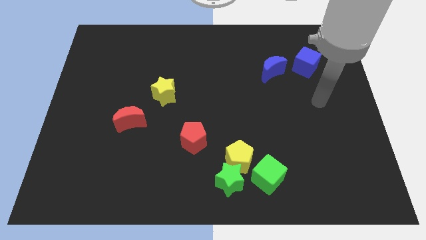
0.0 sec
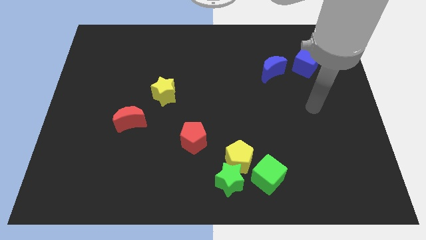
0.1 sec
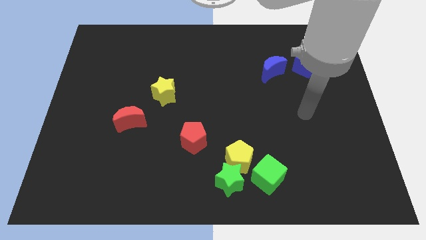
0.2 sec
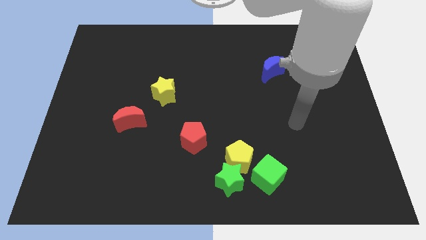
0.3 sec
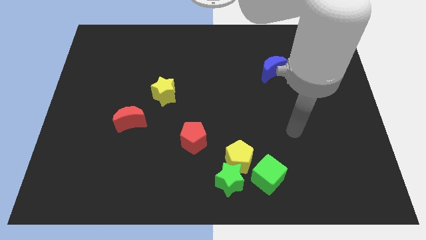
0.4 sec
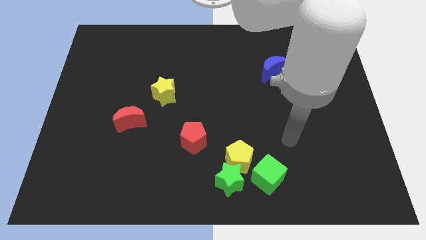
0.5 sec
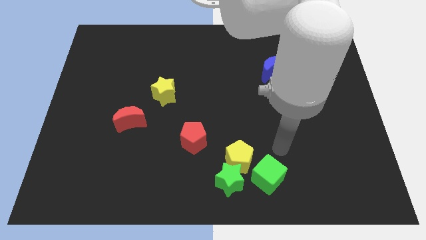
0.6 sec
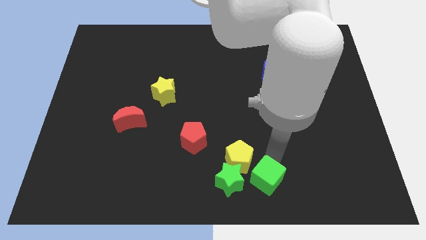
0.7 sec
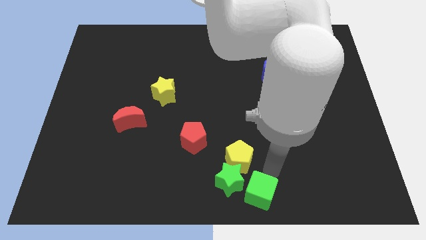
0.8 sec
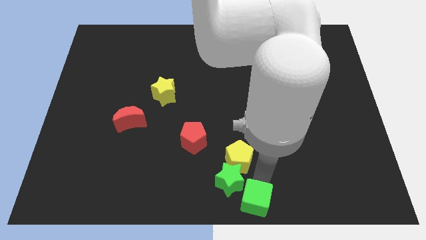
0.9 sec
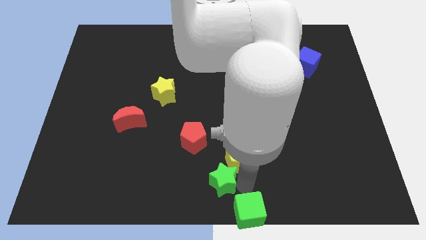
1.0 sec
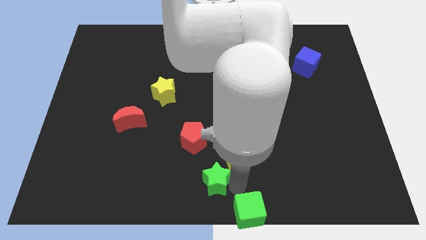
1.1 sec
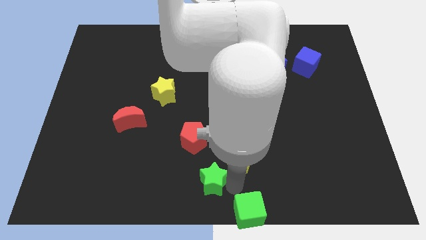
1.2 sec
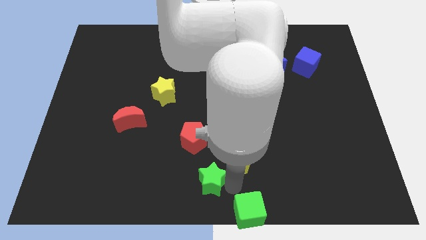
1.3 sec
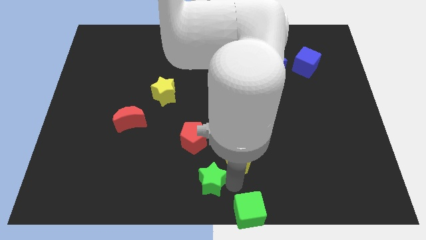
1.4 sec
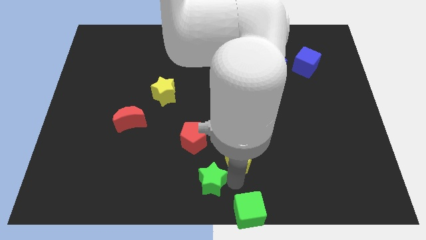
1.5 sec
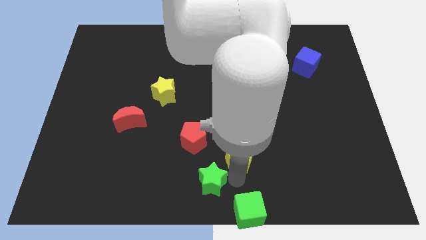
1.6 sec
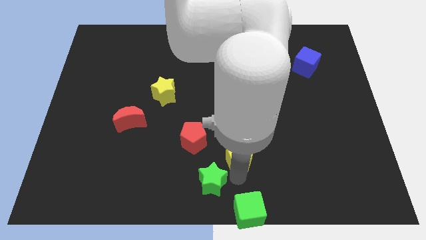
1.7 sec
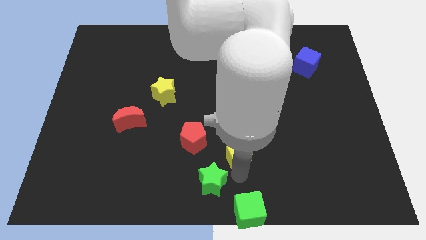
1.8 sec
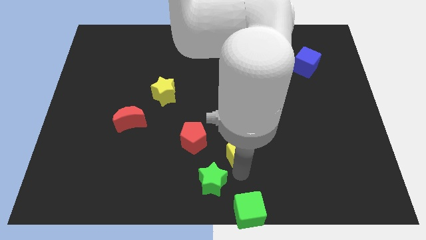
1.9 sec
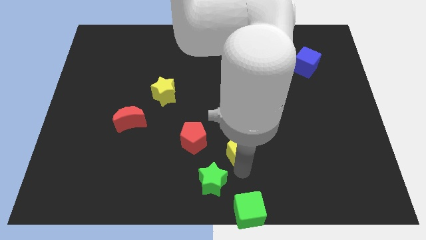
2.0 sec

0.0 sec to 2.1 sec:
separate the yellow pentagon from the green star and green cube

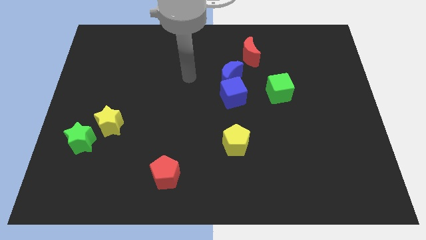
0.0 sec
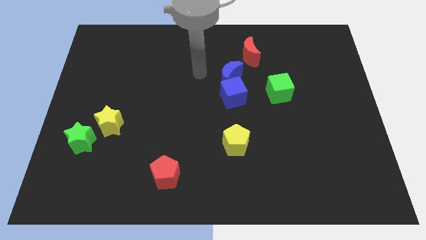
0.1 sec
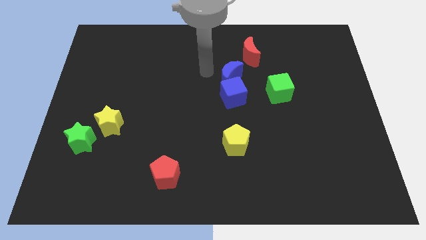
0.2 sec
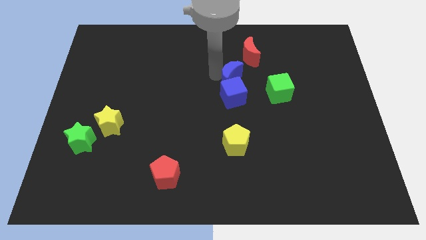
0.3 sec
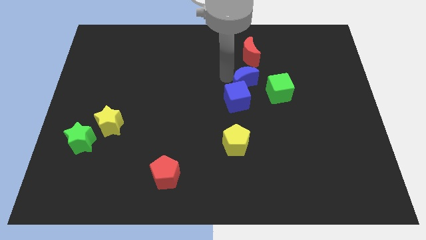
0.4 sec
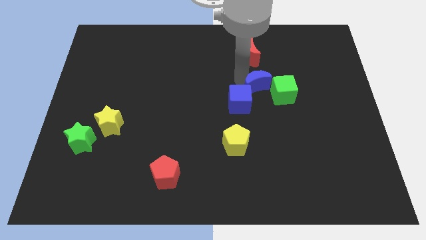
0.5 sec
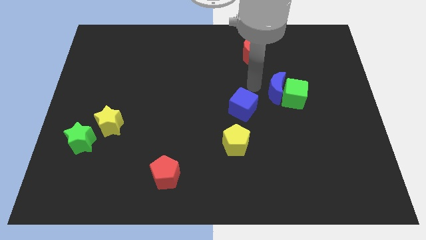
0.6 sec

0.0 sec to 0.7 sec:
pull the blue cube apart from the blue moon

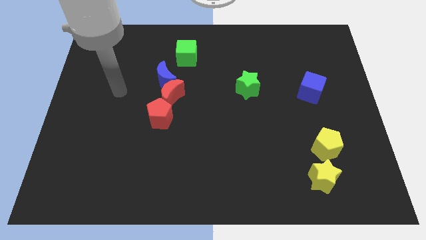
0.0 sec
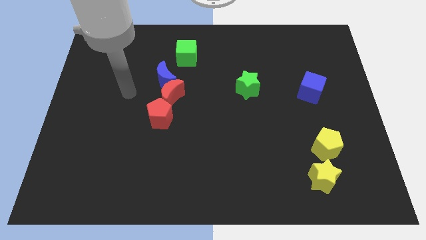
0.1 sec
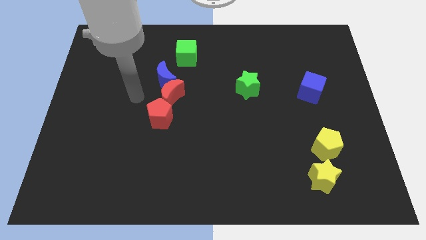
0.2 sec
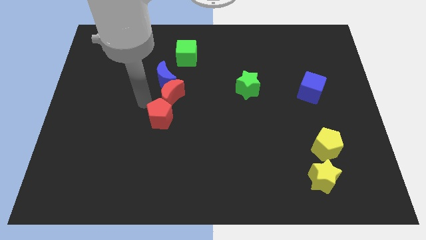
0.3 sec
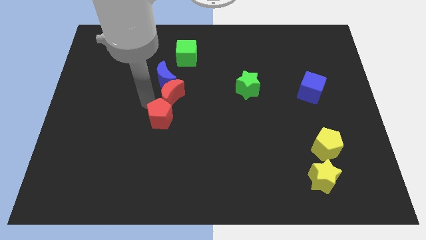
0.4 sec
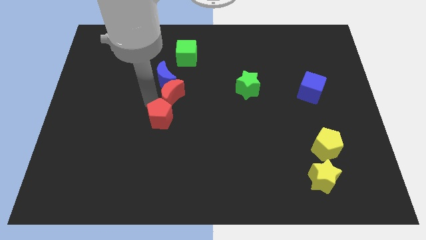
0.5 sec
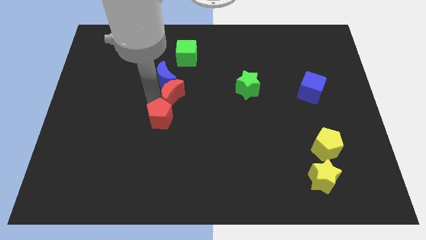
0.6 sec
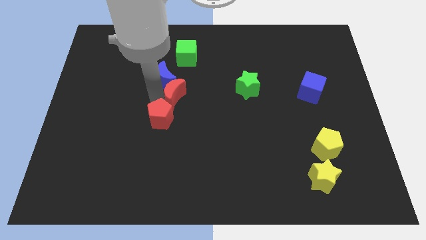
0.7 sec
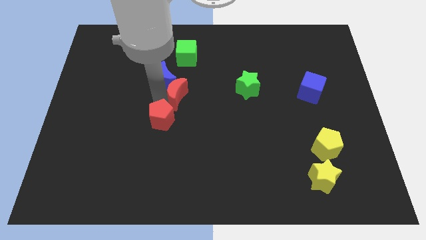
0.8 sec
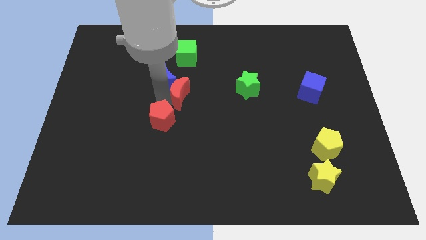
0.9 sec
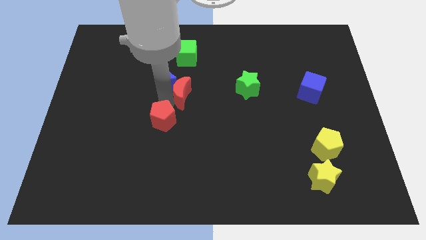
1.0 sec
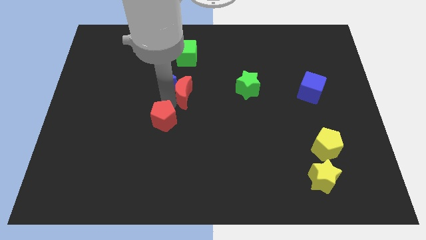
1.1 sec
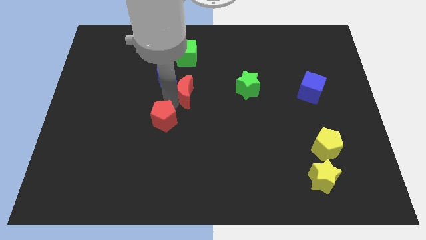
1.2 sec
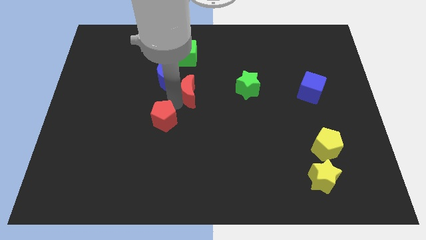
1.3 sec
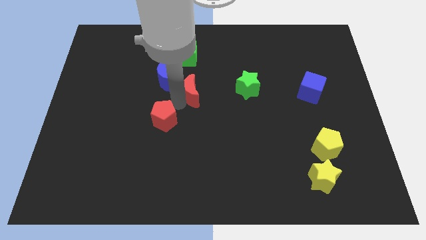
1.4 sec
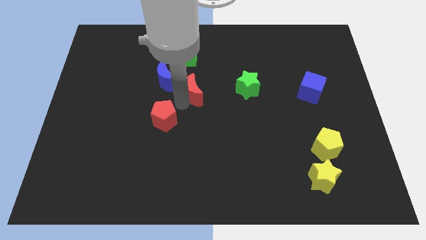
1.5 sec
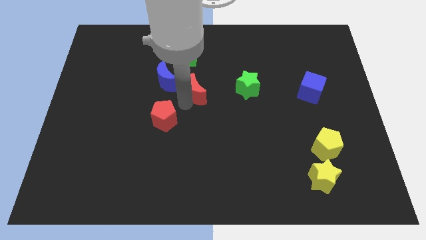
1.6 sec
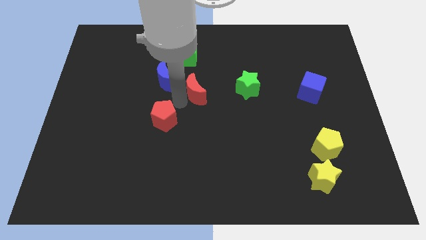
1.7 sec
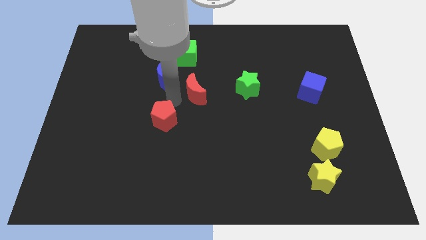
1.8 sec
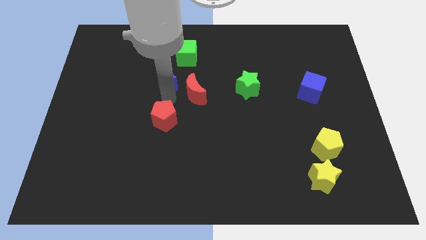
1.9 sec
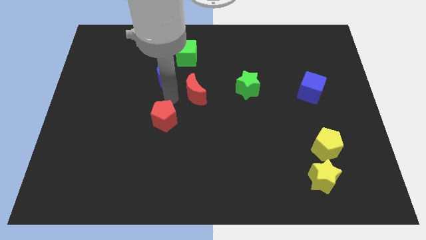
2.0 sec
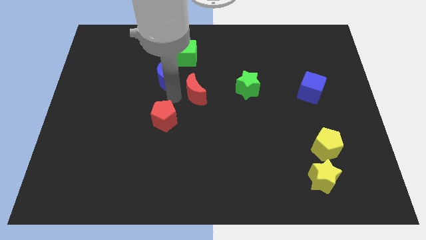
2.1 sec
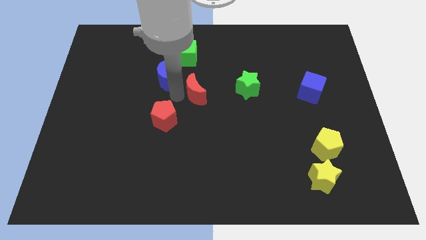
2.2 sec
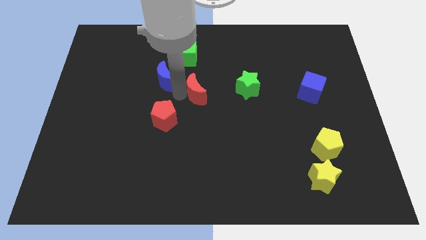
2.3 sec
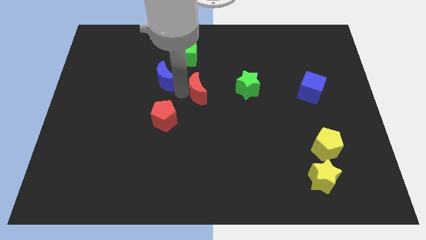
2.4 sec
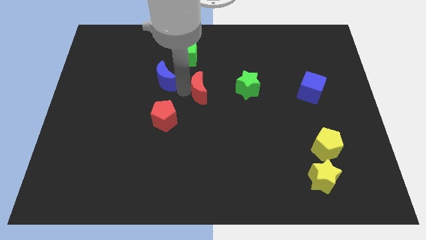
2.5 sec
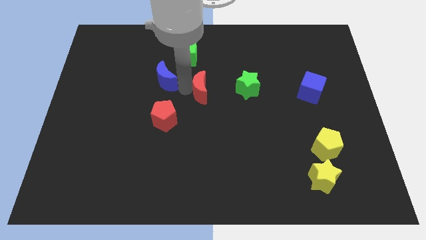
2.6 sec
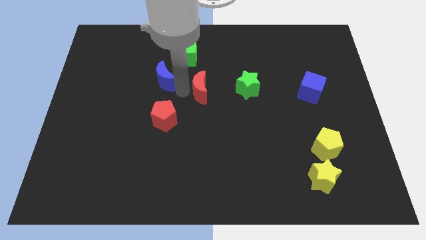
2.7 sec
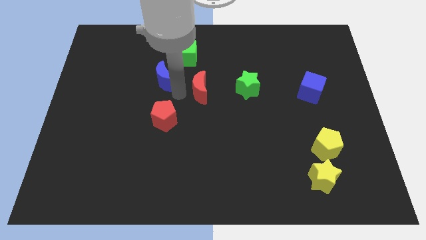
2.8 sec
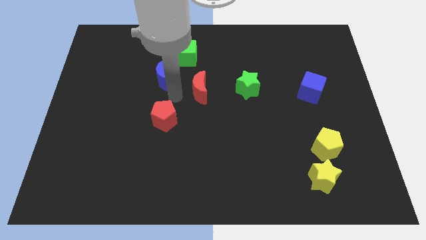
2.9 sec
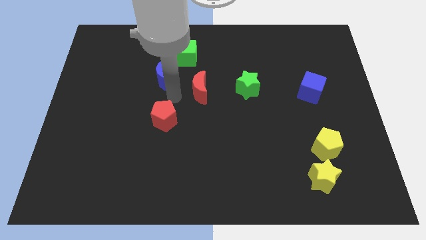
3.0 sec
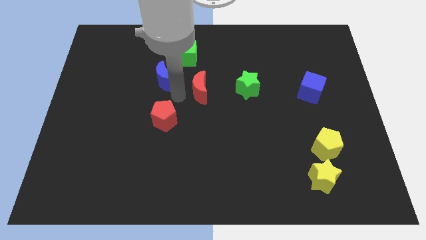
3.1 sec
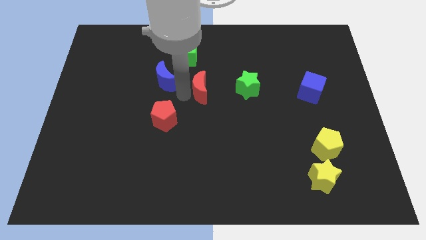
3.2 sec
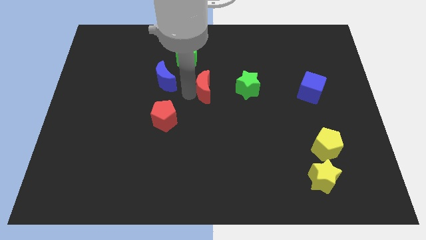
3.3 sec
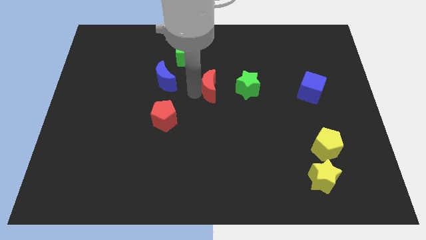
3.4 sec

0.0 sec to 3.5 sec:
pull the red moon apart from the blue moon and red pentagon

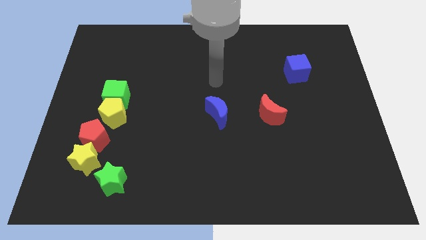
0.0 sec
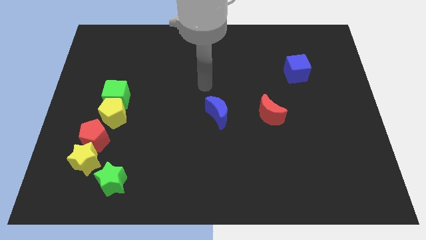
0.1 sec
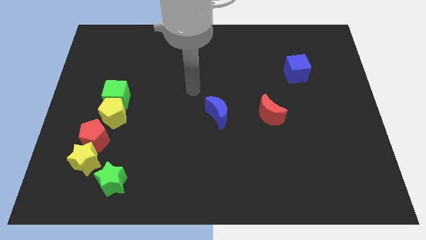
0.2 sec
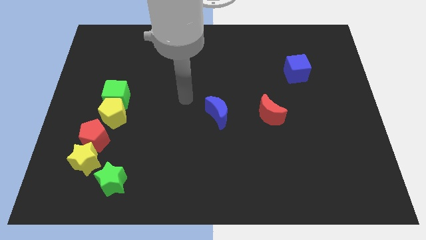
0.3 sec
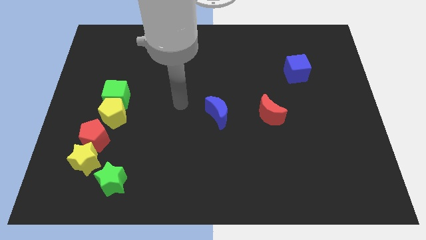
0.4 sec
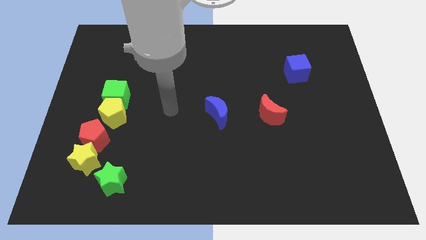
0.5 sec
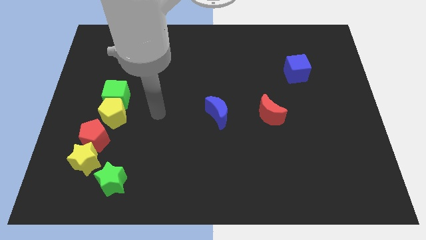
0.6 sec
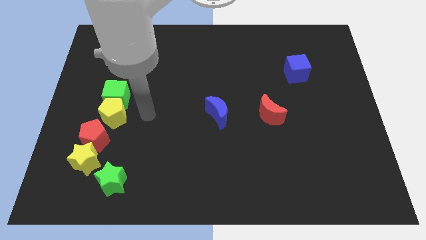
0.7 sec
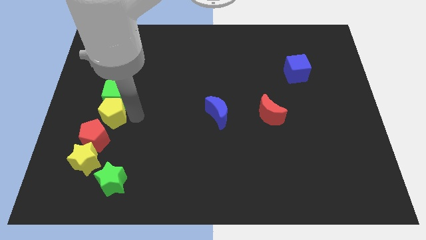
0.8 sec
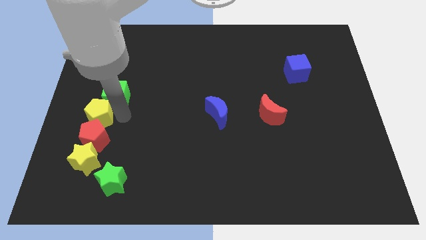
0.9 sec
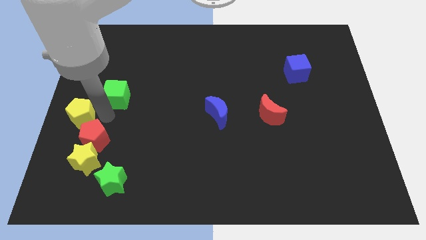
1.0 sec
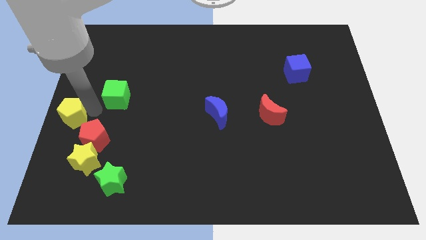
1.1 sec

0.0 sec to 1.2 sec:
pull the green cube apart from the yellow pentagon

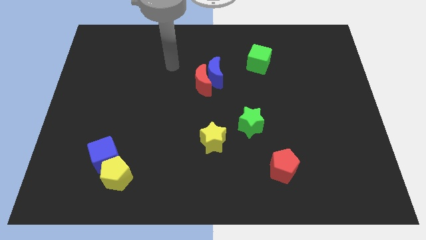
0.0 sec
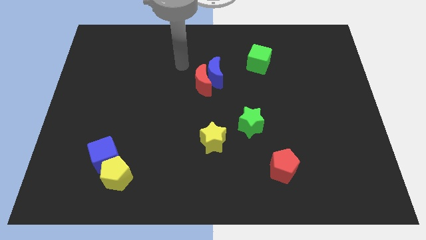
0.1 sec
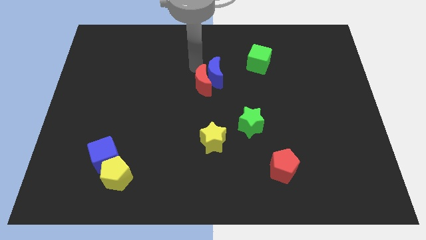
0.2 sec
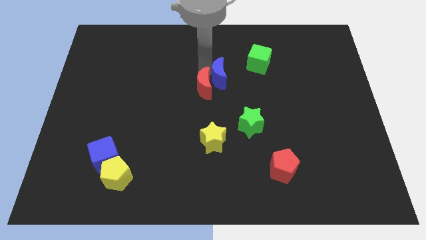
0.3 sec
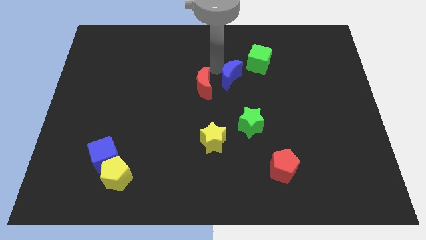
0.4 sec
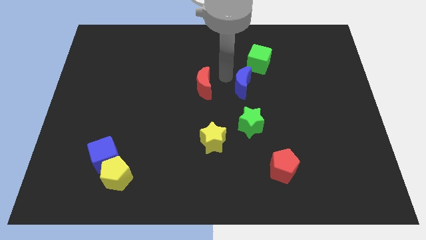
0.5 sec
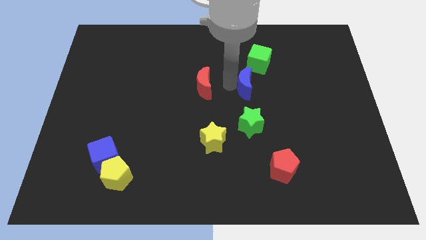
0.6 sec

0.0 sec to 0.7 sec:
pull the red moon apart from the blue moon

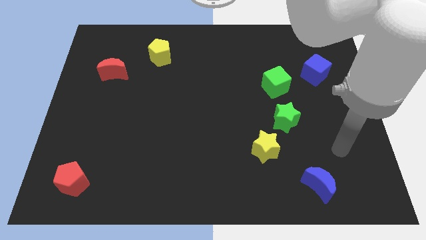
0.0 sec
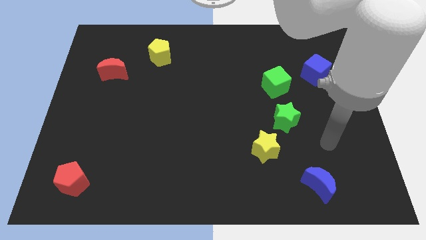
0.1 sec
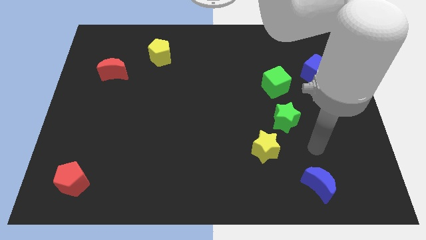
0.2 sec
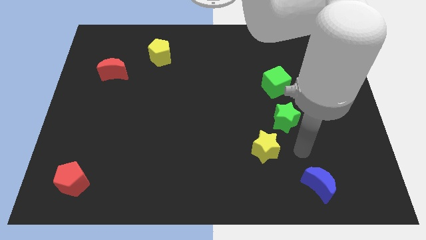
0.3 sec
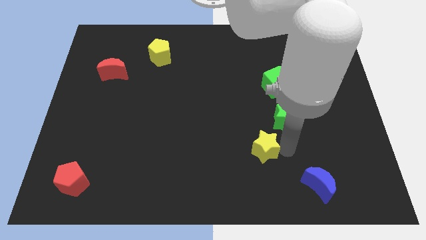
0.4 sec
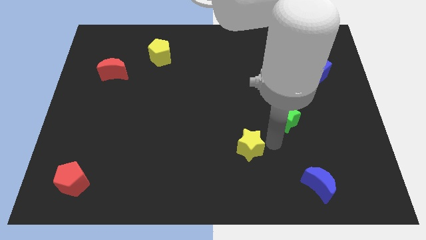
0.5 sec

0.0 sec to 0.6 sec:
separate the green star from the yellow star

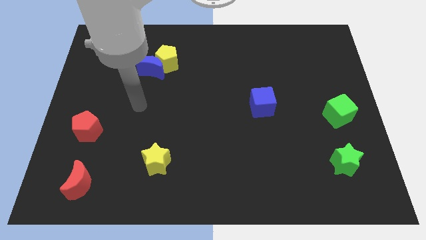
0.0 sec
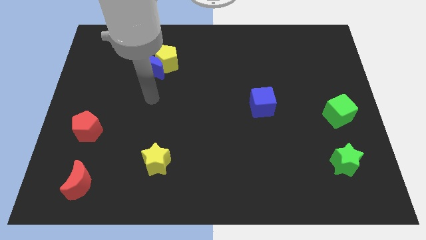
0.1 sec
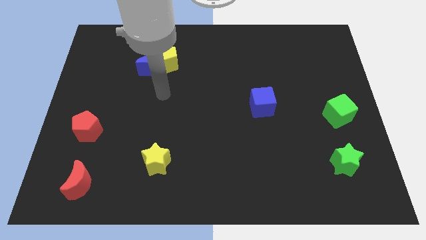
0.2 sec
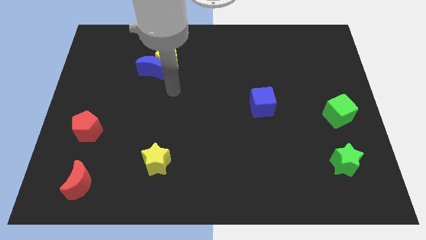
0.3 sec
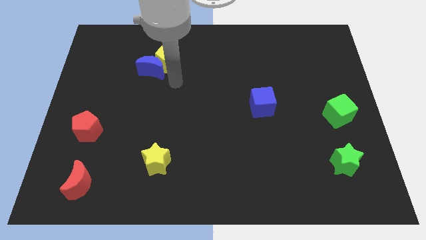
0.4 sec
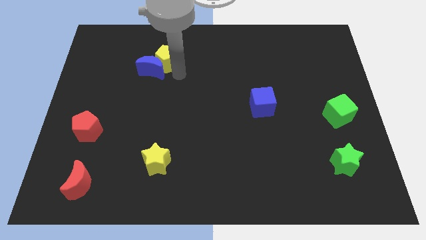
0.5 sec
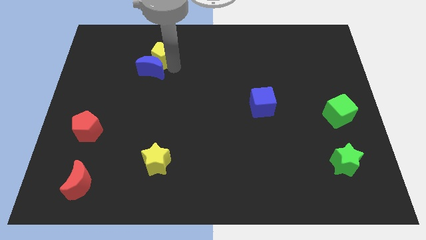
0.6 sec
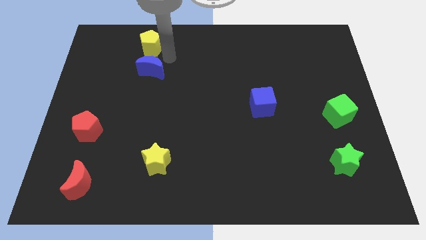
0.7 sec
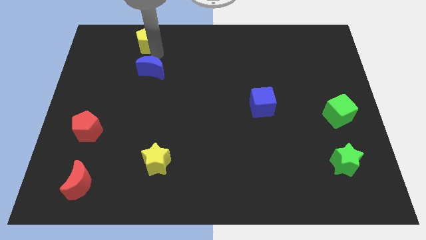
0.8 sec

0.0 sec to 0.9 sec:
pull the blue moon apart from the yellow pentagon
